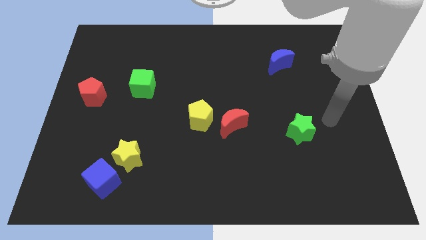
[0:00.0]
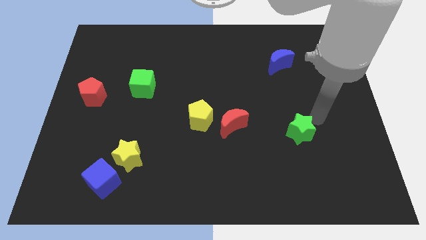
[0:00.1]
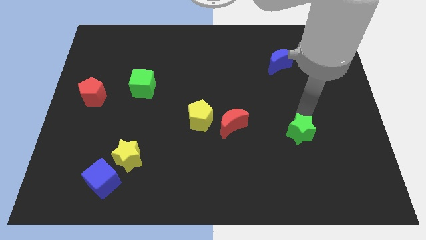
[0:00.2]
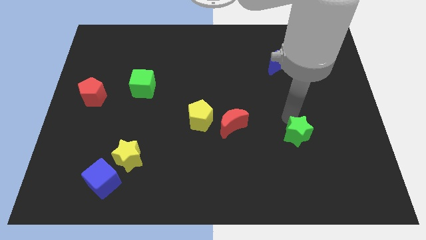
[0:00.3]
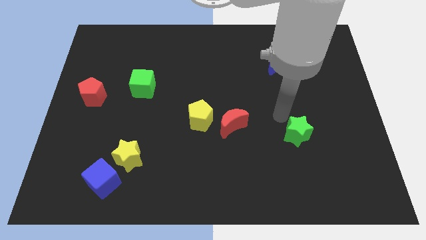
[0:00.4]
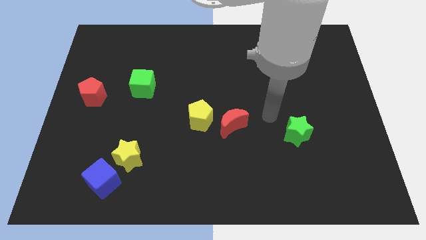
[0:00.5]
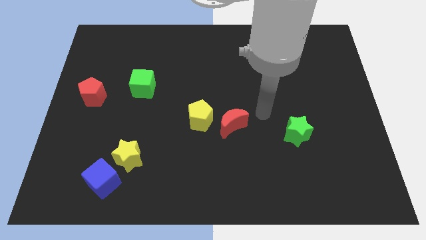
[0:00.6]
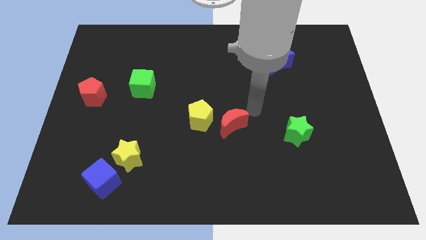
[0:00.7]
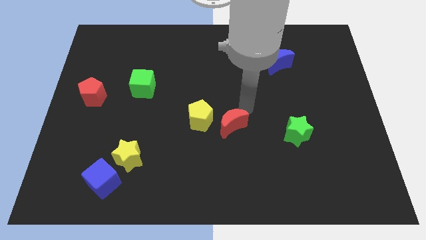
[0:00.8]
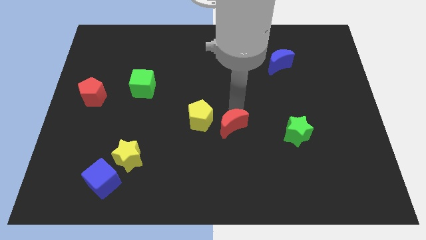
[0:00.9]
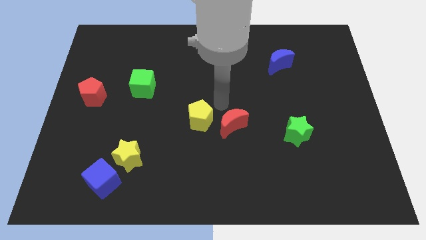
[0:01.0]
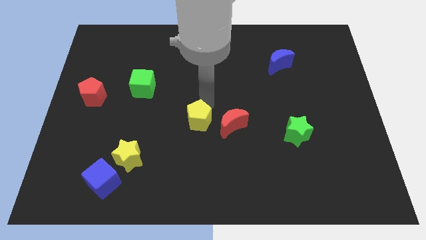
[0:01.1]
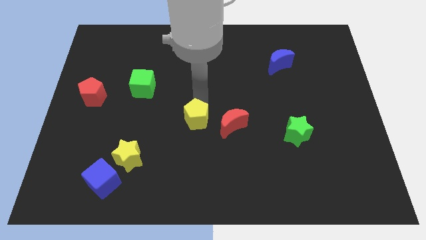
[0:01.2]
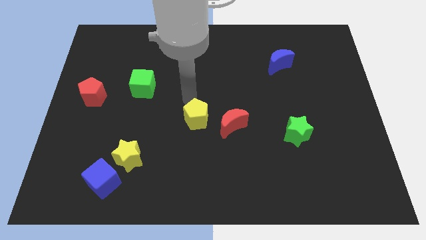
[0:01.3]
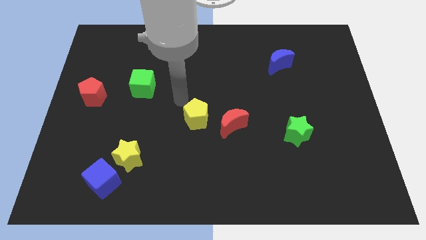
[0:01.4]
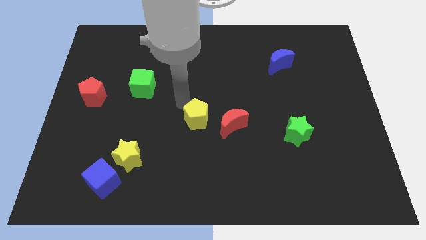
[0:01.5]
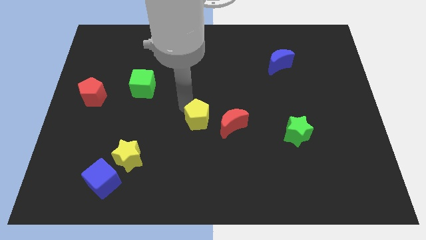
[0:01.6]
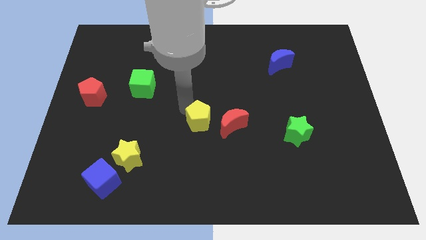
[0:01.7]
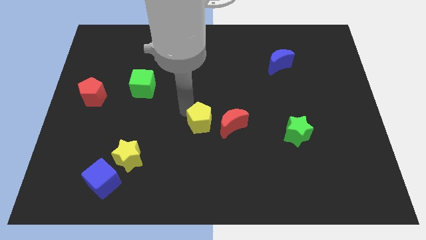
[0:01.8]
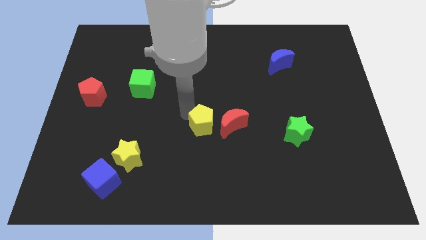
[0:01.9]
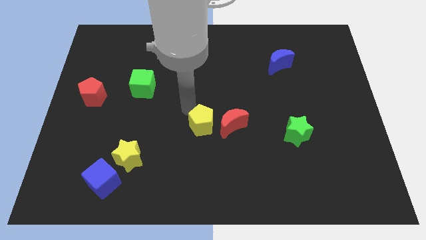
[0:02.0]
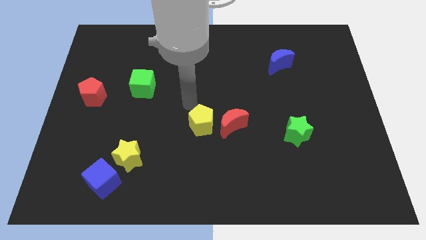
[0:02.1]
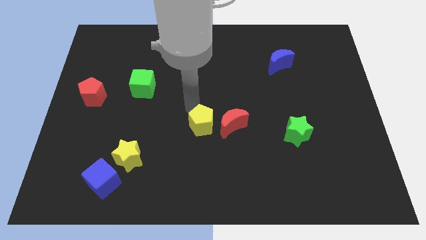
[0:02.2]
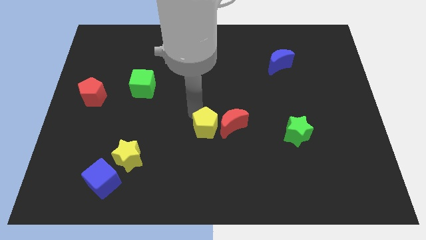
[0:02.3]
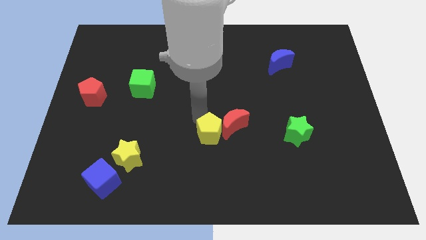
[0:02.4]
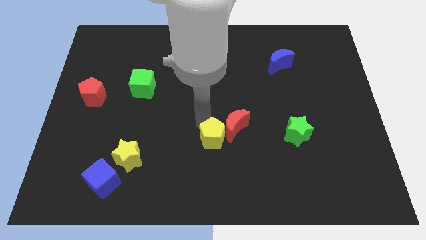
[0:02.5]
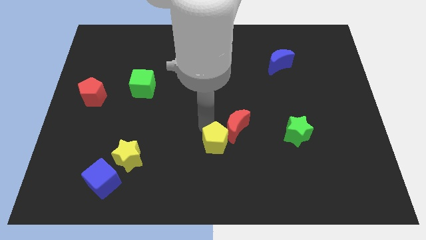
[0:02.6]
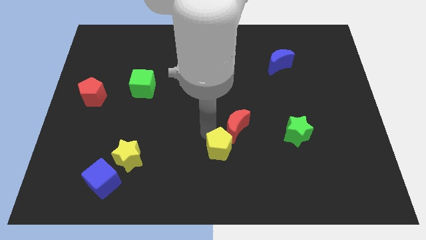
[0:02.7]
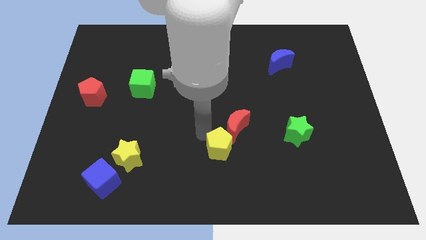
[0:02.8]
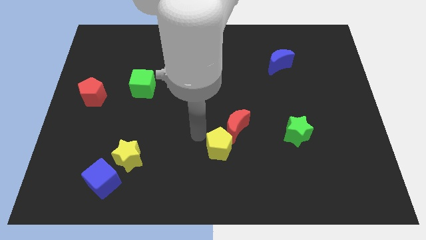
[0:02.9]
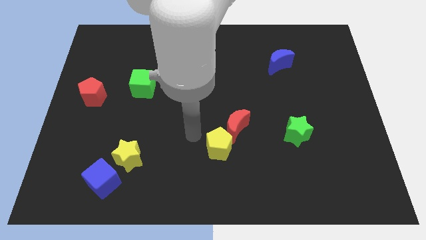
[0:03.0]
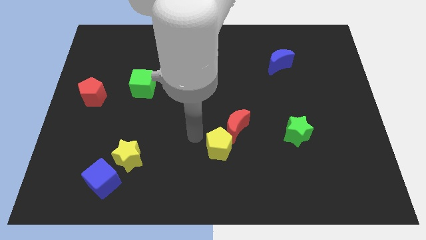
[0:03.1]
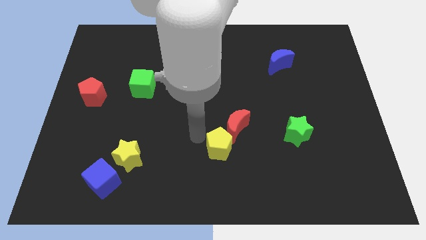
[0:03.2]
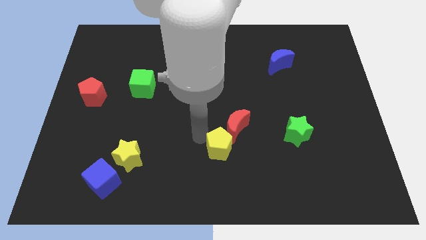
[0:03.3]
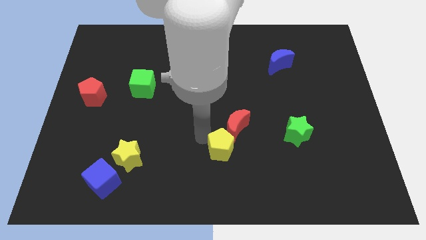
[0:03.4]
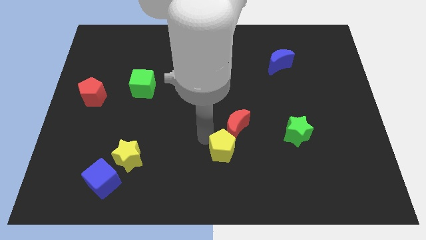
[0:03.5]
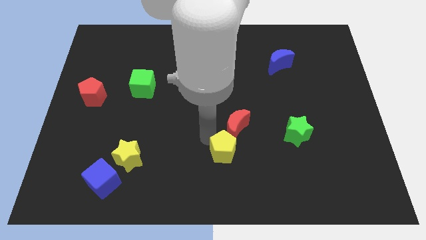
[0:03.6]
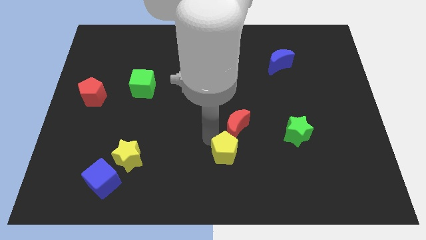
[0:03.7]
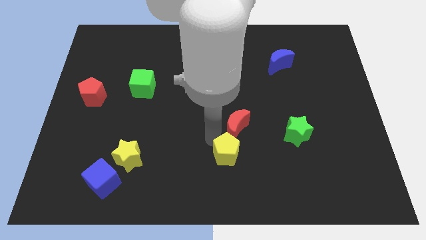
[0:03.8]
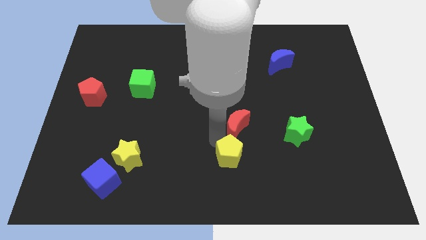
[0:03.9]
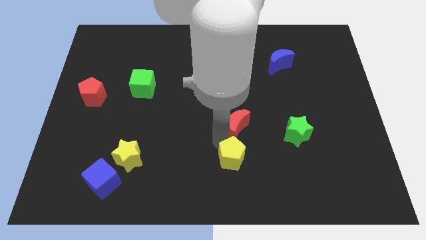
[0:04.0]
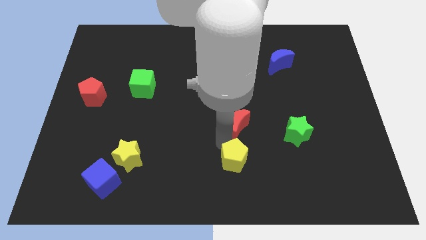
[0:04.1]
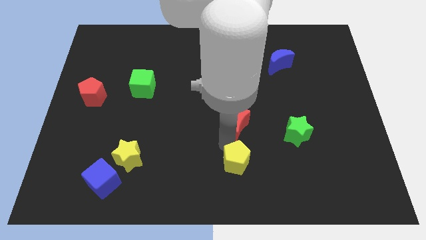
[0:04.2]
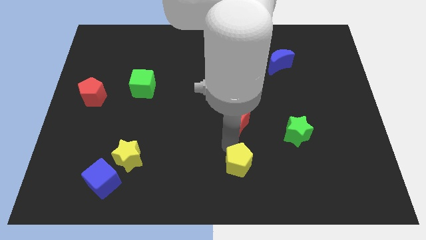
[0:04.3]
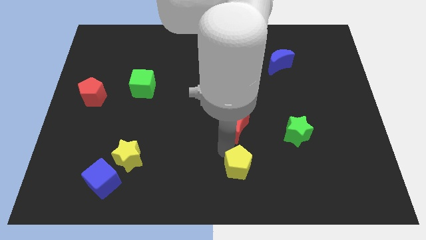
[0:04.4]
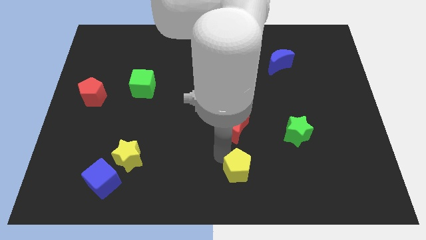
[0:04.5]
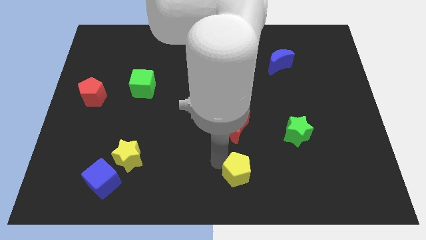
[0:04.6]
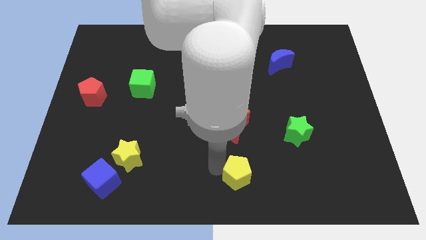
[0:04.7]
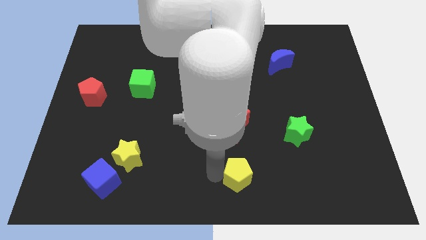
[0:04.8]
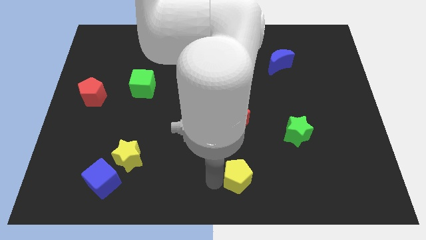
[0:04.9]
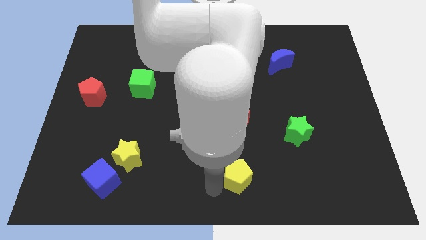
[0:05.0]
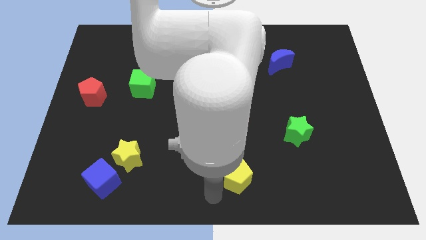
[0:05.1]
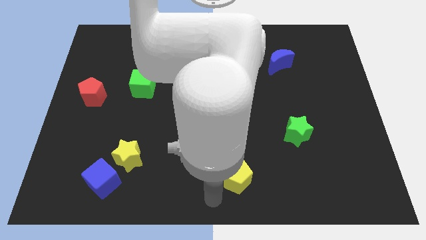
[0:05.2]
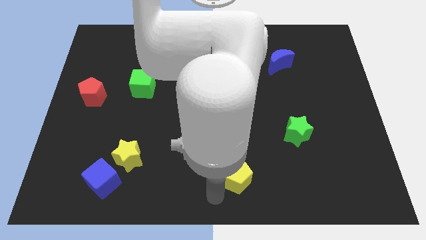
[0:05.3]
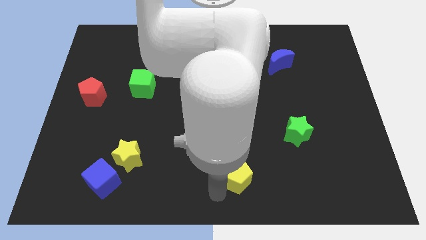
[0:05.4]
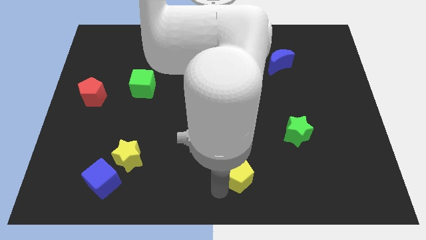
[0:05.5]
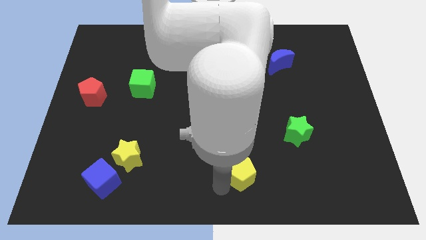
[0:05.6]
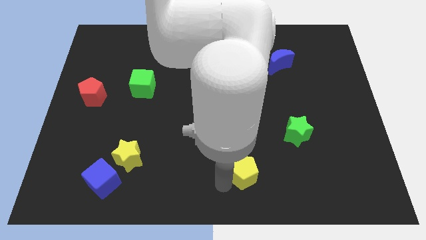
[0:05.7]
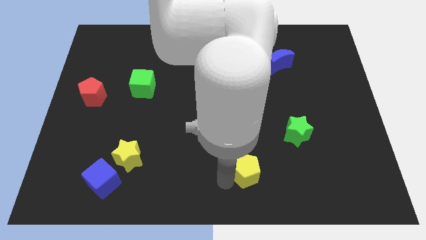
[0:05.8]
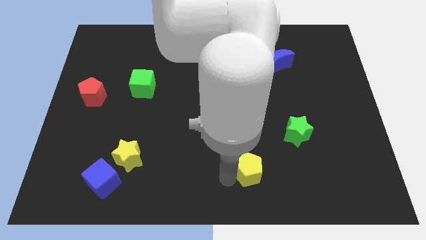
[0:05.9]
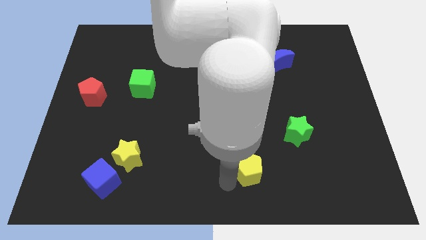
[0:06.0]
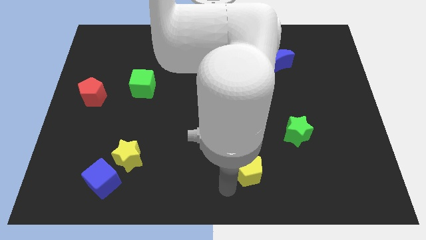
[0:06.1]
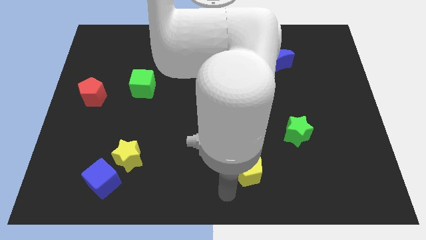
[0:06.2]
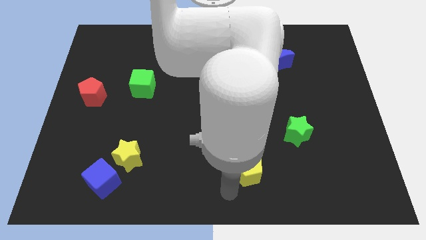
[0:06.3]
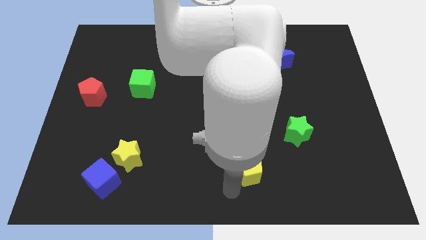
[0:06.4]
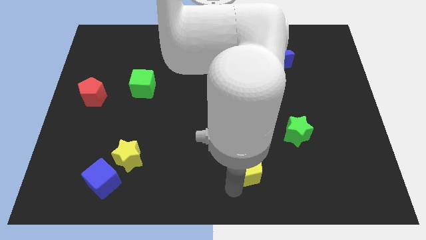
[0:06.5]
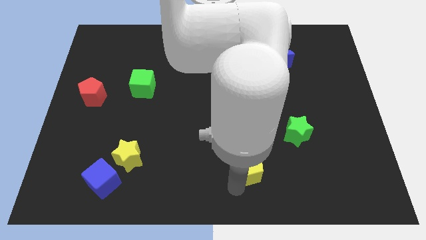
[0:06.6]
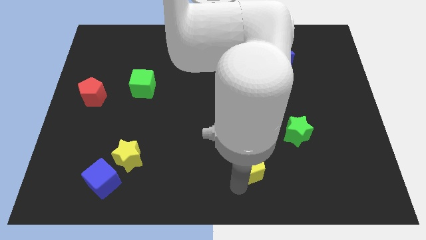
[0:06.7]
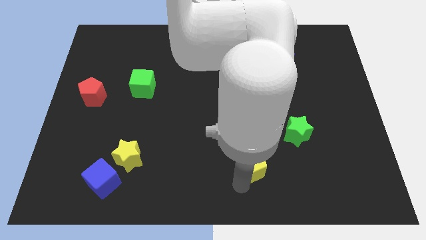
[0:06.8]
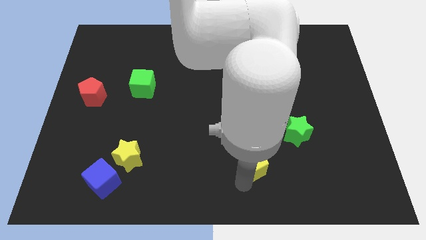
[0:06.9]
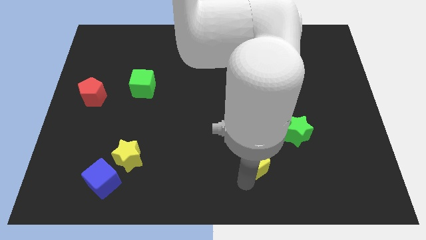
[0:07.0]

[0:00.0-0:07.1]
move the yellow pentagon to the bottom left side of the green star
